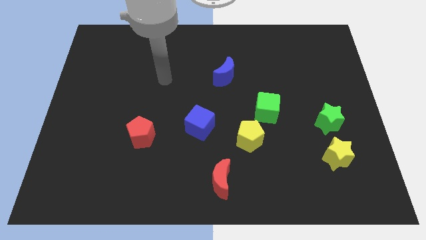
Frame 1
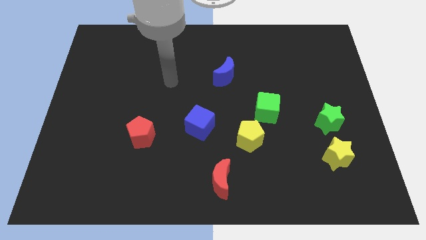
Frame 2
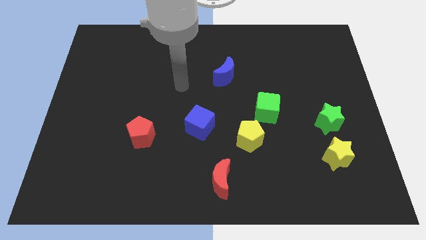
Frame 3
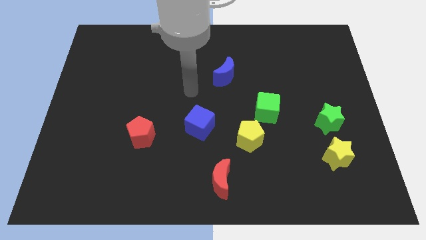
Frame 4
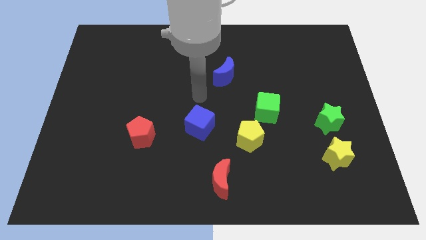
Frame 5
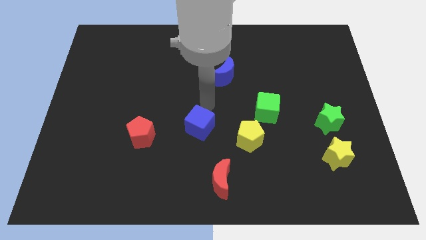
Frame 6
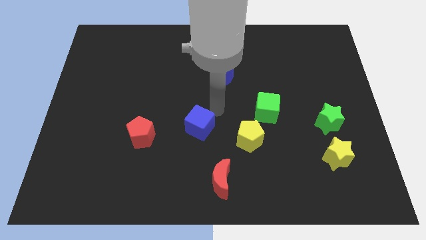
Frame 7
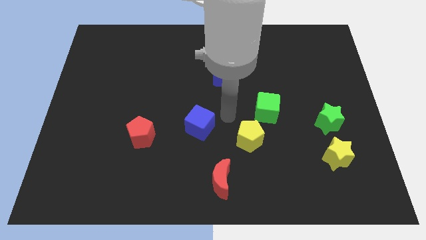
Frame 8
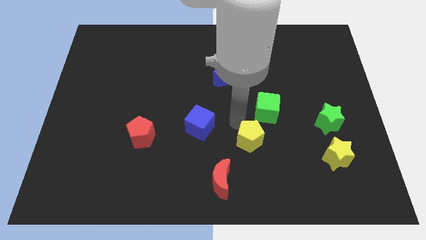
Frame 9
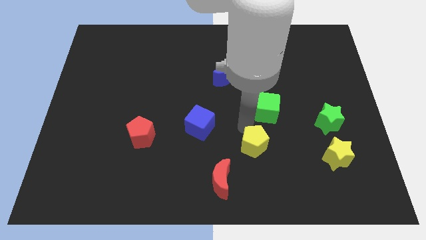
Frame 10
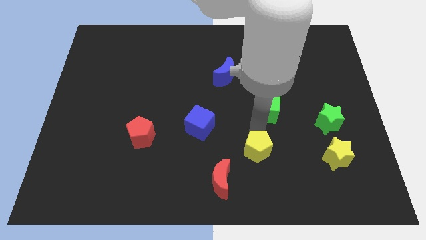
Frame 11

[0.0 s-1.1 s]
pull the green cube apart from the yellow pentagon

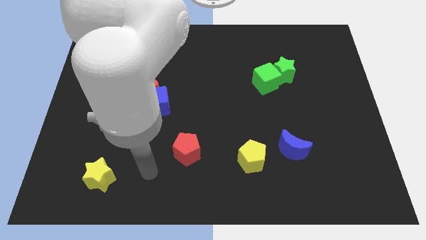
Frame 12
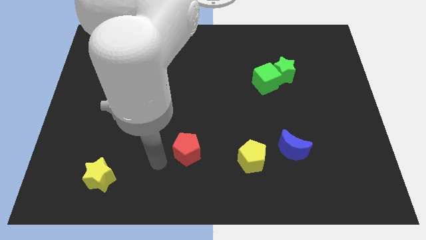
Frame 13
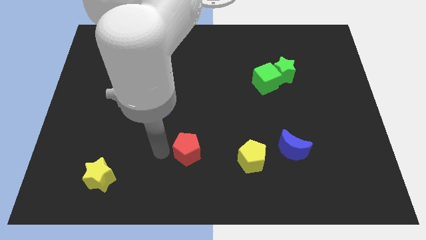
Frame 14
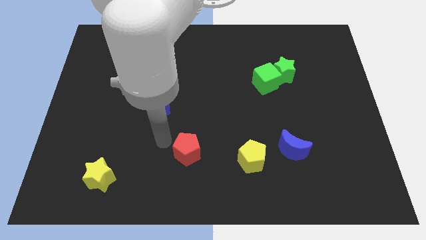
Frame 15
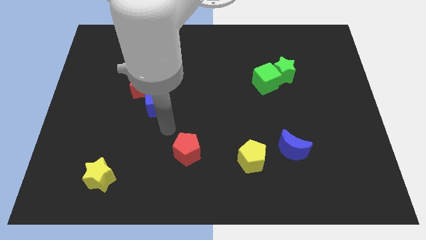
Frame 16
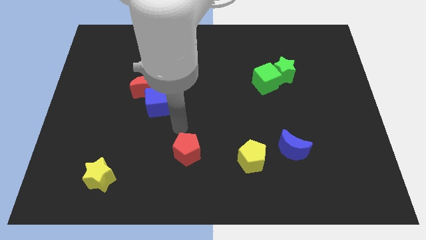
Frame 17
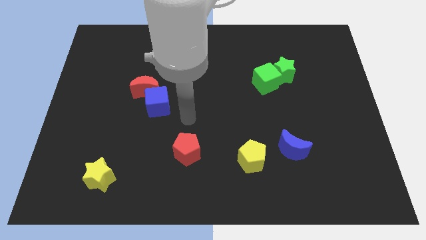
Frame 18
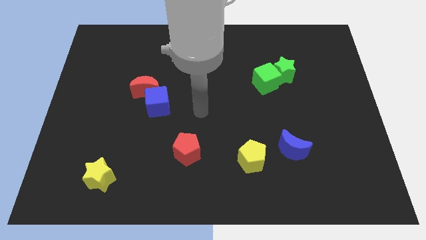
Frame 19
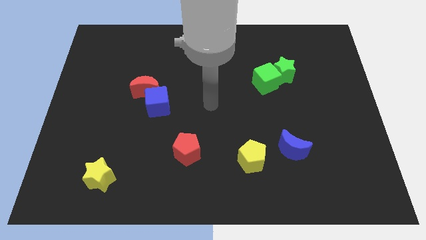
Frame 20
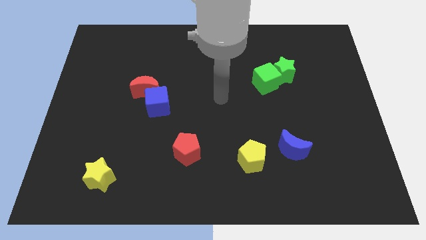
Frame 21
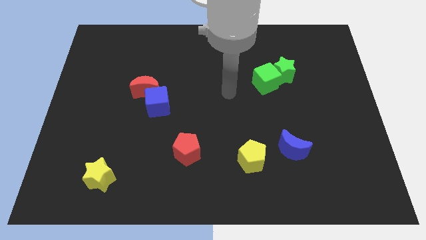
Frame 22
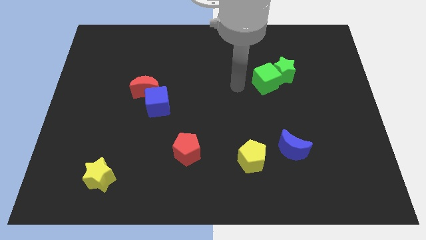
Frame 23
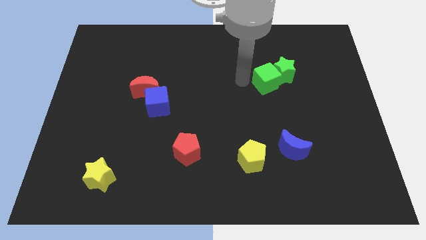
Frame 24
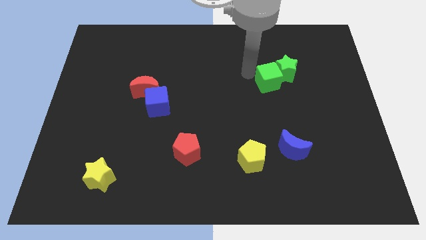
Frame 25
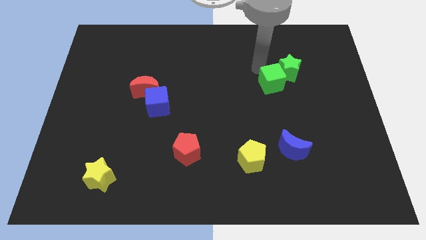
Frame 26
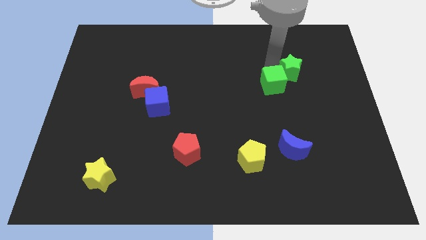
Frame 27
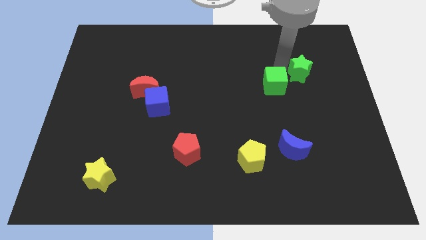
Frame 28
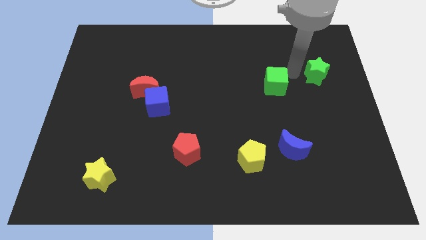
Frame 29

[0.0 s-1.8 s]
move the green cube away from the green star

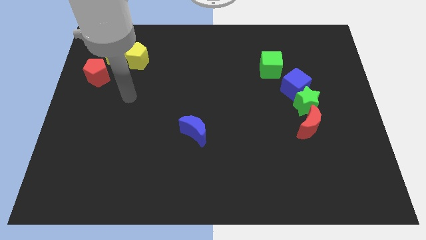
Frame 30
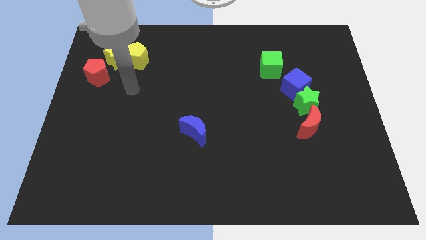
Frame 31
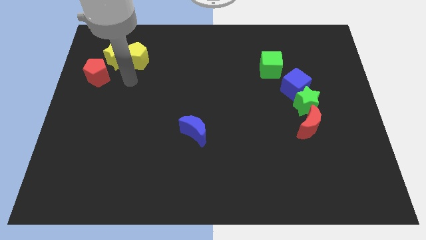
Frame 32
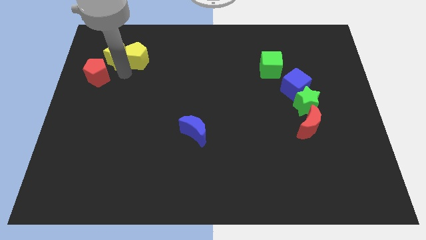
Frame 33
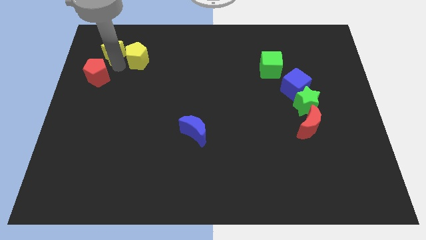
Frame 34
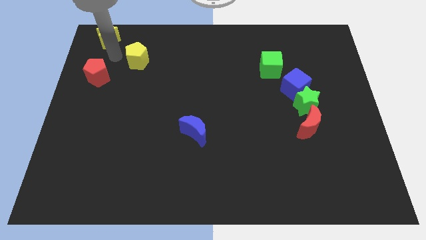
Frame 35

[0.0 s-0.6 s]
pull the yellow pentagon apart from the yellow star

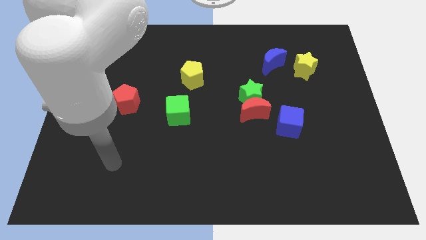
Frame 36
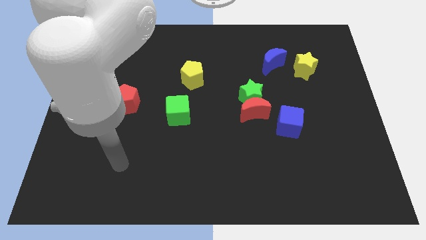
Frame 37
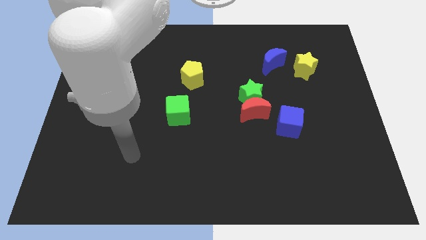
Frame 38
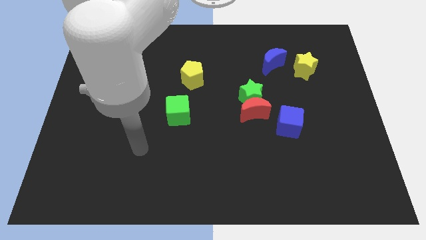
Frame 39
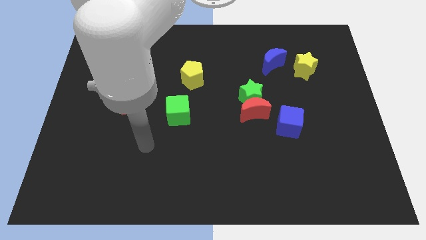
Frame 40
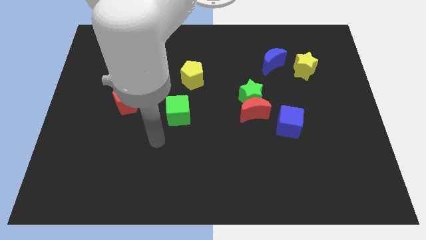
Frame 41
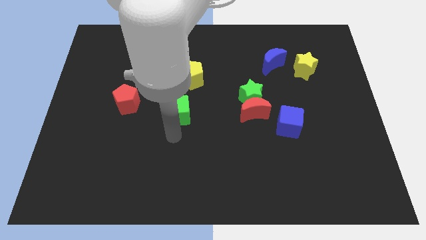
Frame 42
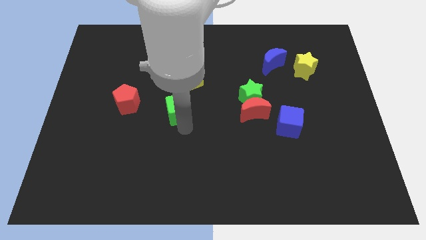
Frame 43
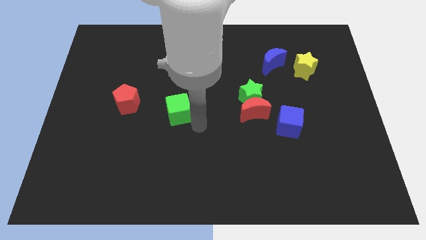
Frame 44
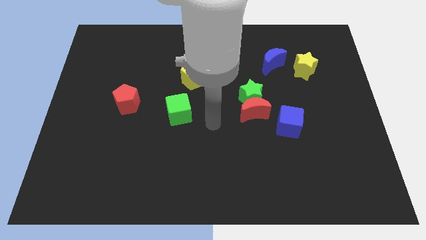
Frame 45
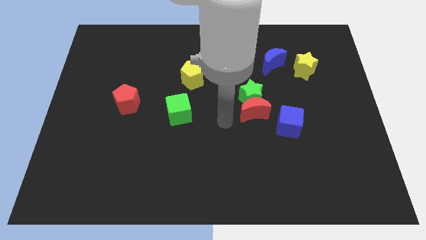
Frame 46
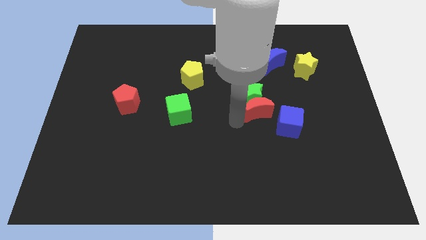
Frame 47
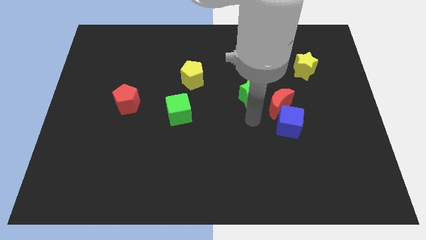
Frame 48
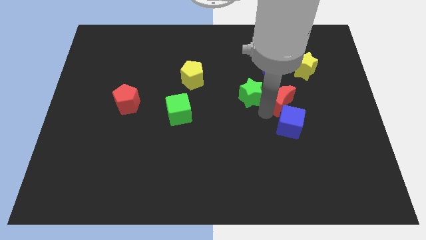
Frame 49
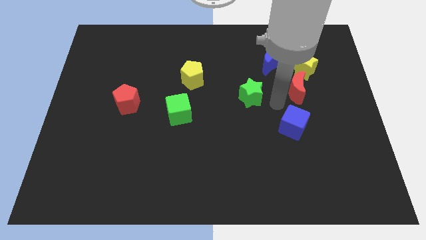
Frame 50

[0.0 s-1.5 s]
pull the green star apart from the red moon

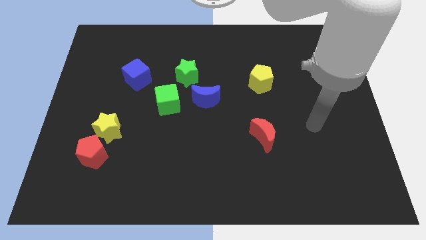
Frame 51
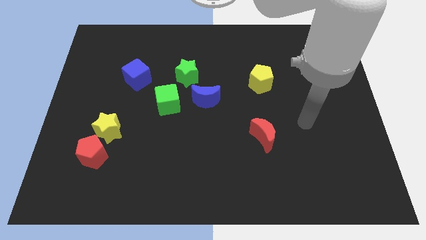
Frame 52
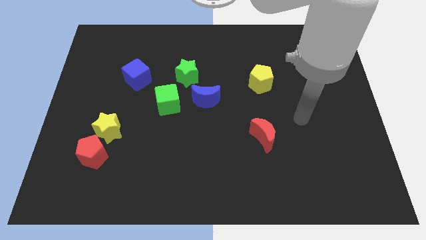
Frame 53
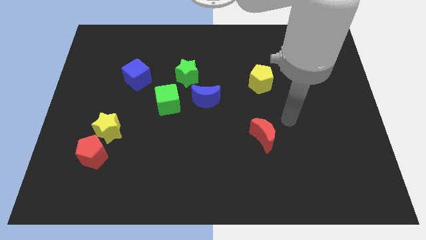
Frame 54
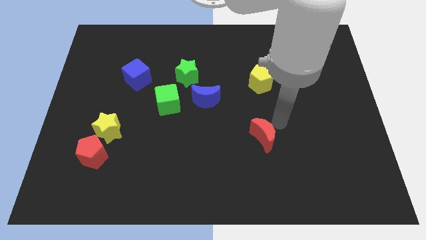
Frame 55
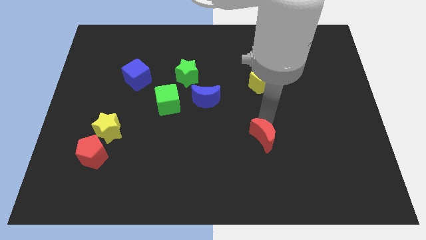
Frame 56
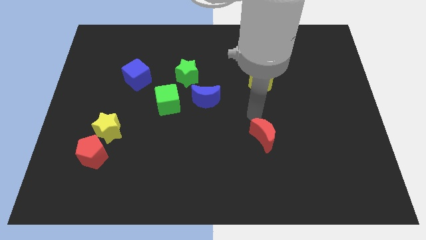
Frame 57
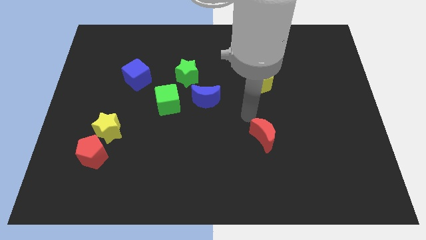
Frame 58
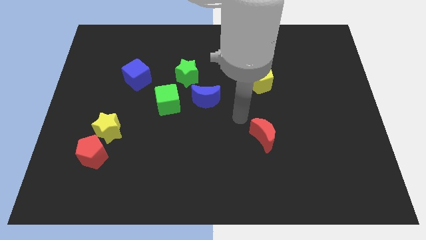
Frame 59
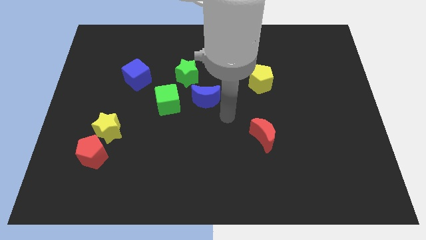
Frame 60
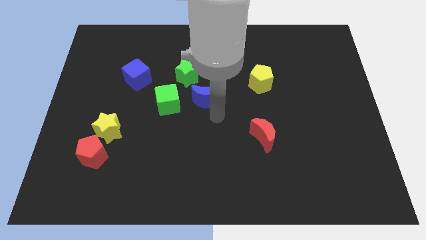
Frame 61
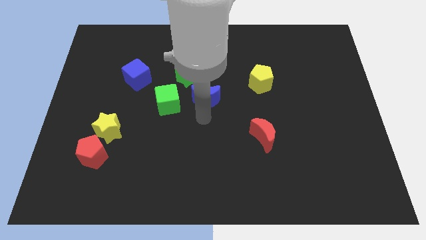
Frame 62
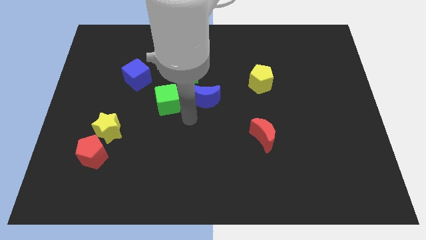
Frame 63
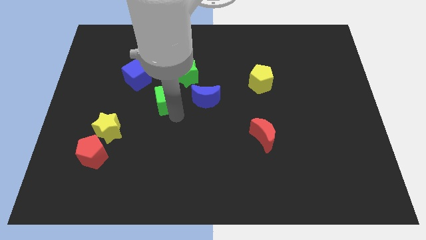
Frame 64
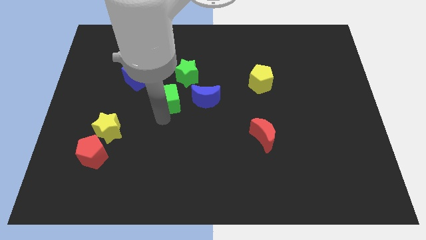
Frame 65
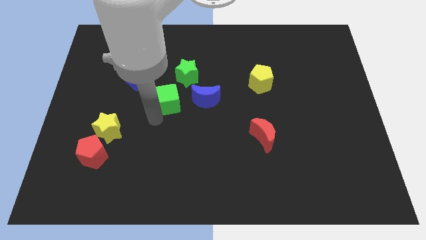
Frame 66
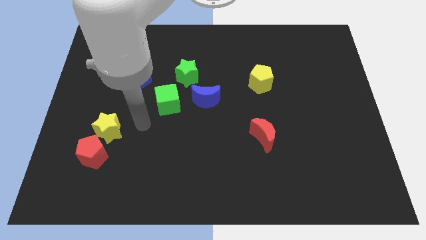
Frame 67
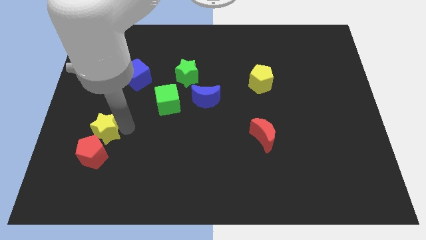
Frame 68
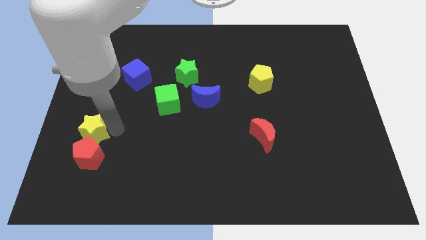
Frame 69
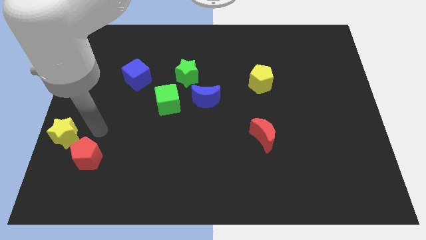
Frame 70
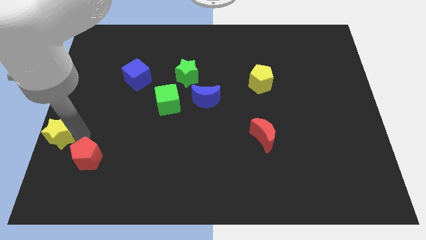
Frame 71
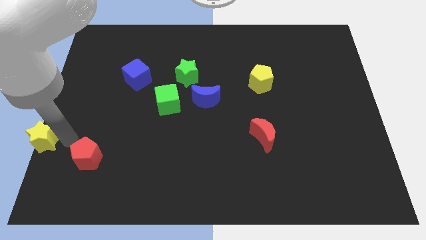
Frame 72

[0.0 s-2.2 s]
separate the red pentagon from the yellow star

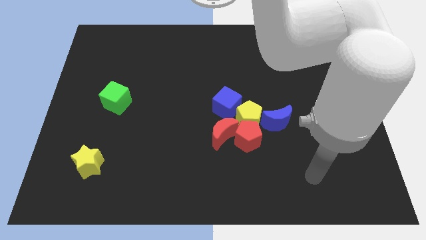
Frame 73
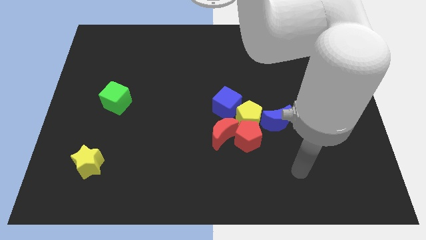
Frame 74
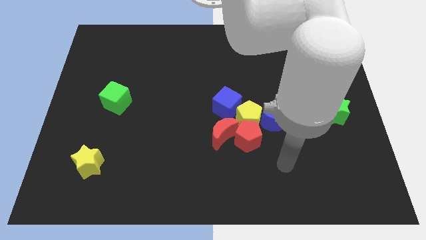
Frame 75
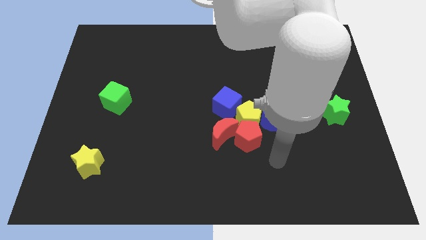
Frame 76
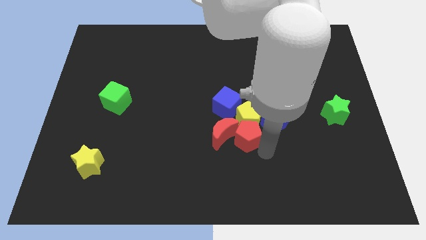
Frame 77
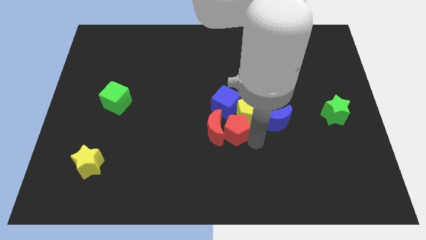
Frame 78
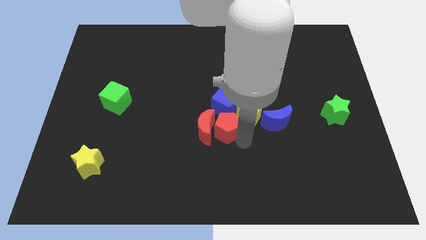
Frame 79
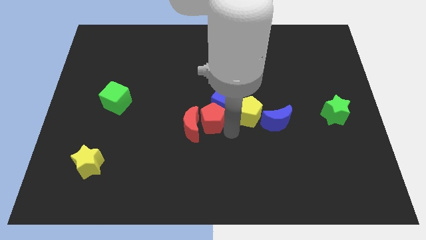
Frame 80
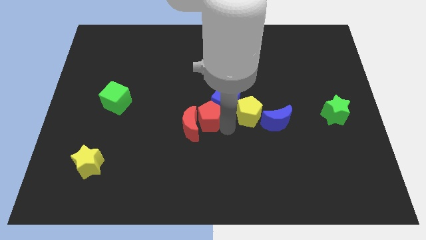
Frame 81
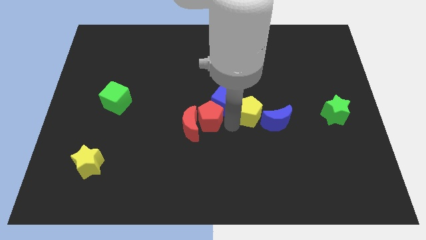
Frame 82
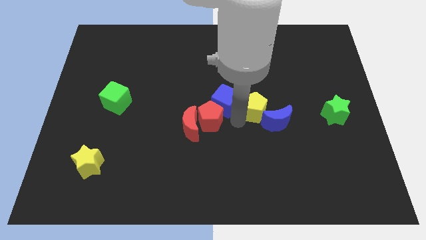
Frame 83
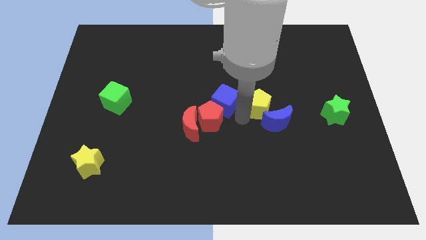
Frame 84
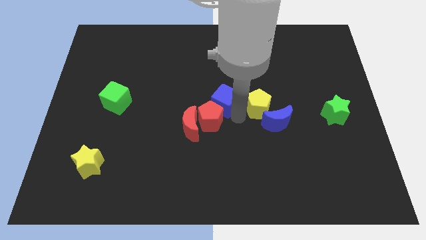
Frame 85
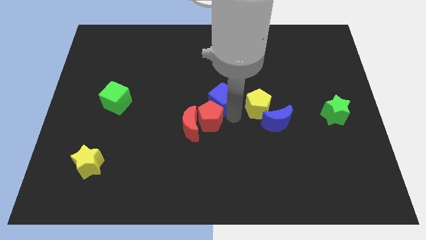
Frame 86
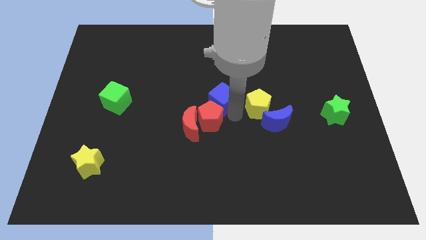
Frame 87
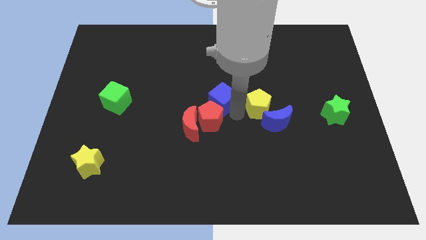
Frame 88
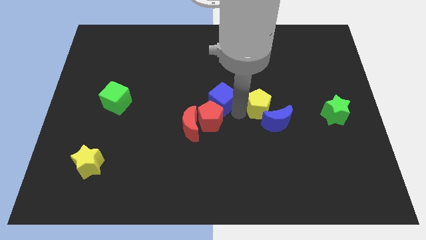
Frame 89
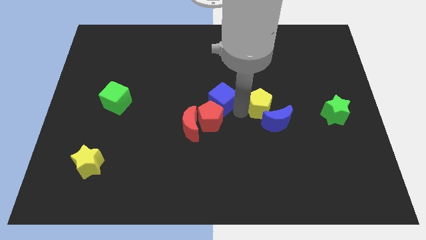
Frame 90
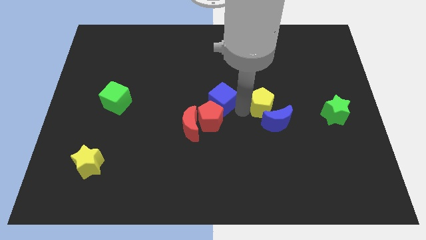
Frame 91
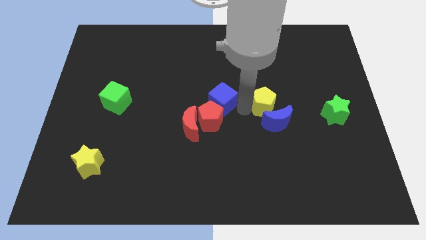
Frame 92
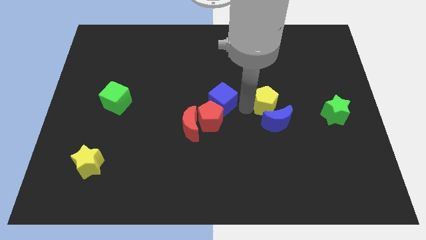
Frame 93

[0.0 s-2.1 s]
separate the yellow pentagon from the clump

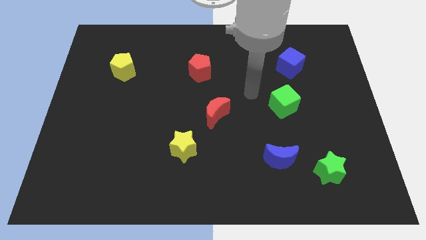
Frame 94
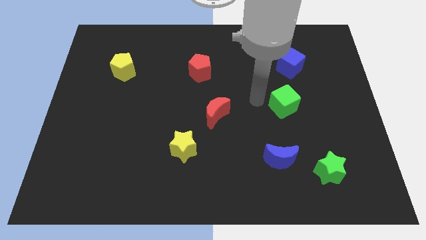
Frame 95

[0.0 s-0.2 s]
separate the blue moon from the green star
